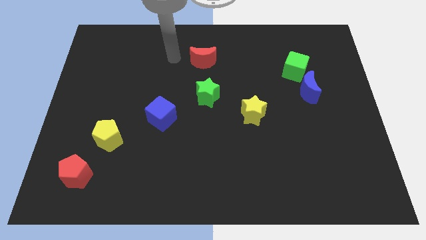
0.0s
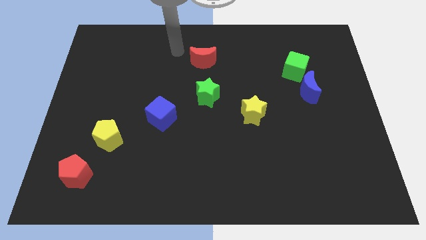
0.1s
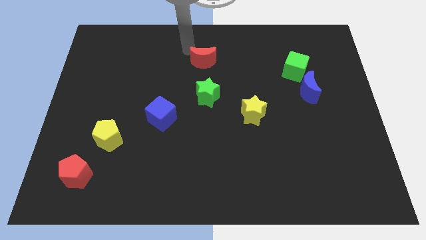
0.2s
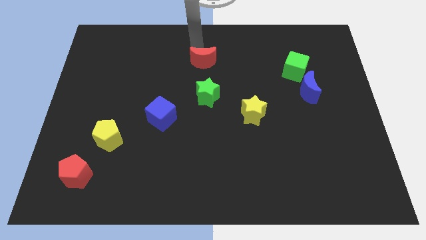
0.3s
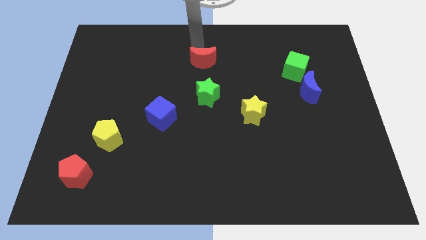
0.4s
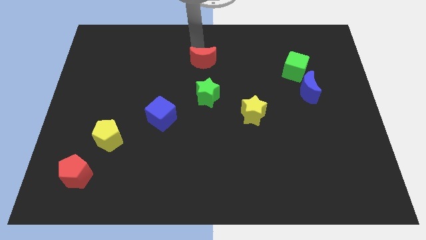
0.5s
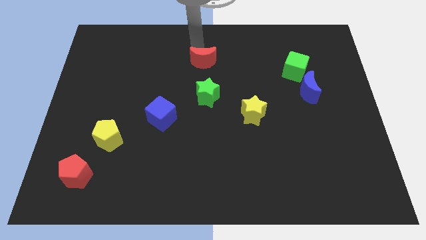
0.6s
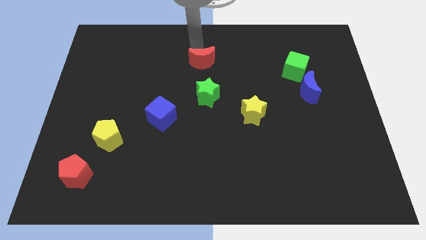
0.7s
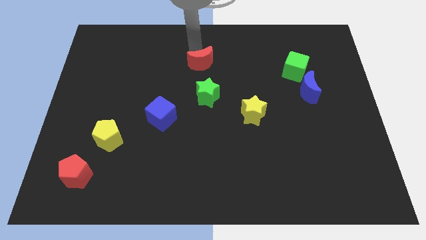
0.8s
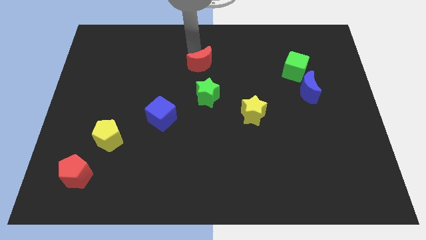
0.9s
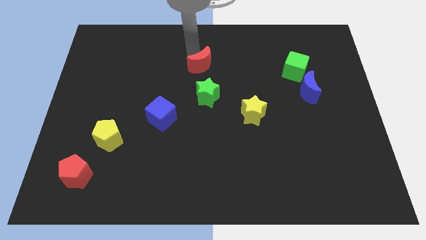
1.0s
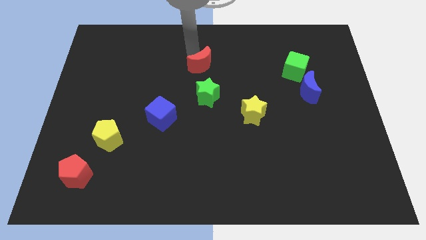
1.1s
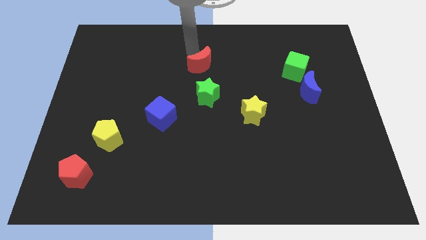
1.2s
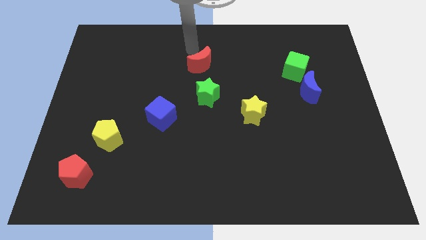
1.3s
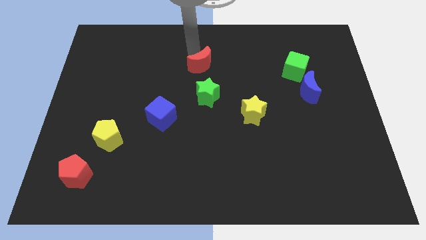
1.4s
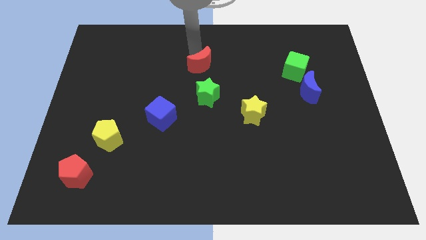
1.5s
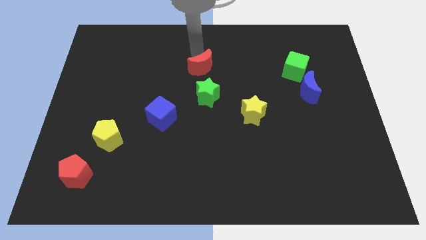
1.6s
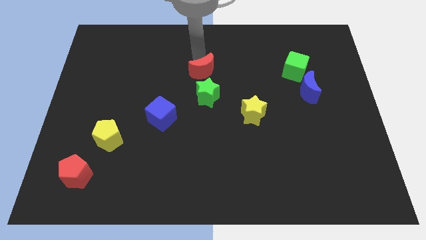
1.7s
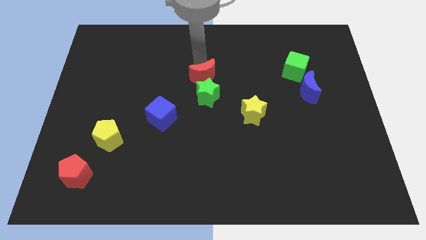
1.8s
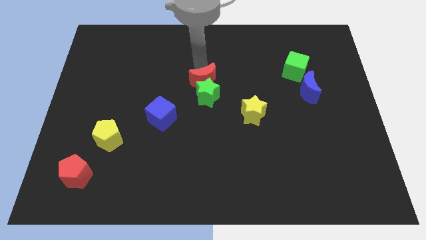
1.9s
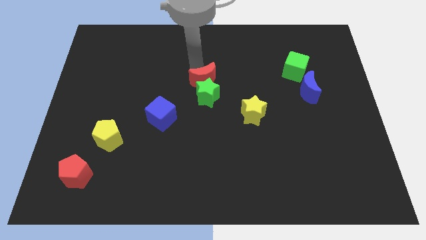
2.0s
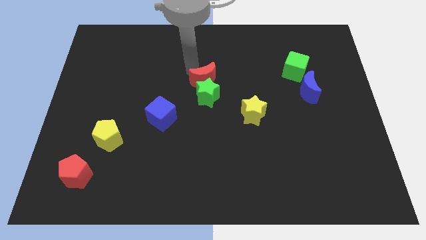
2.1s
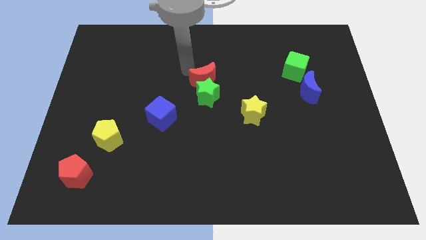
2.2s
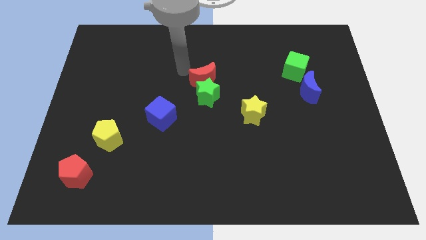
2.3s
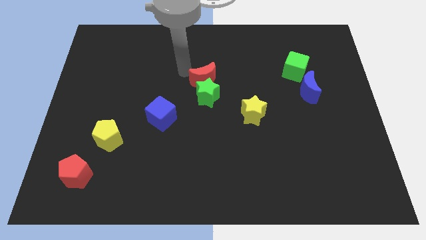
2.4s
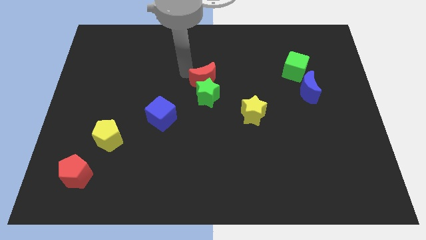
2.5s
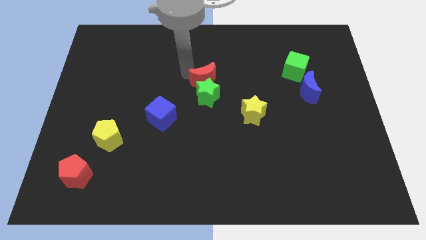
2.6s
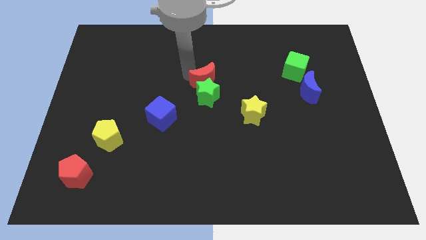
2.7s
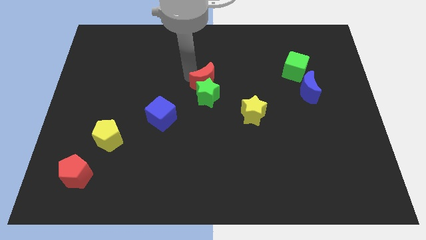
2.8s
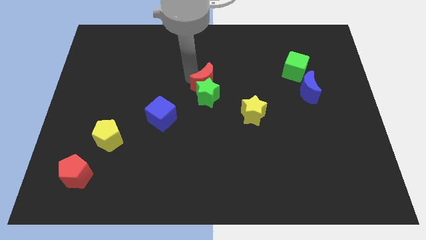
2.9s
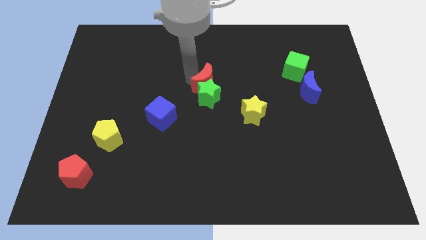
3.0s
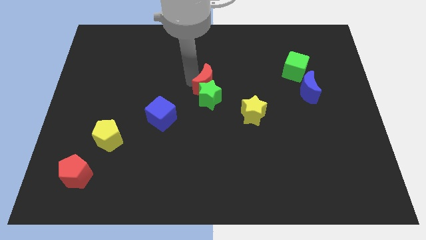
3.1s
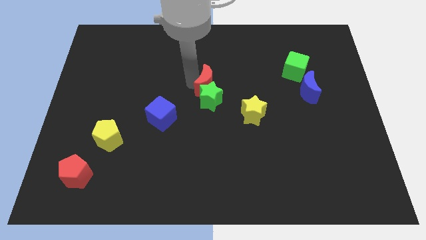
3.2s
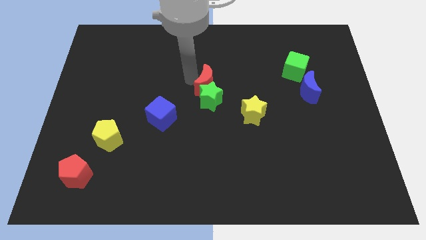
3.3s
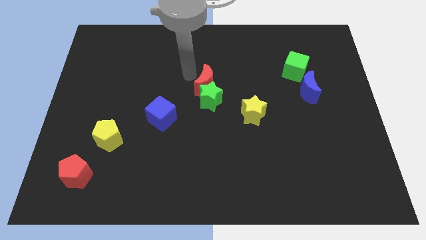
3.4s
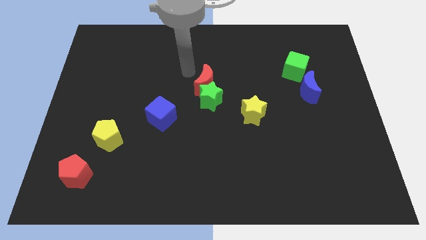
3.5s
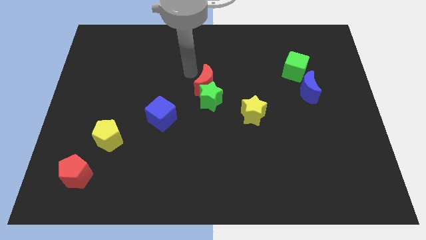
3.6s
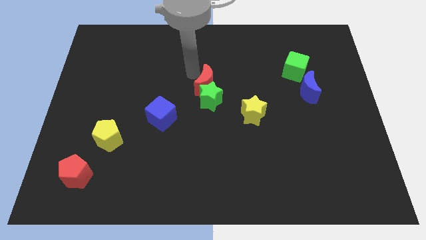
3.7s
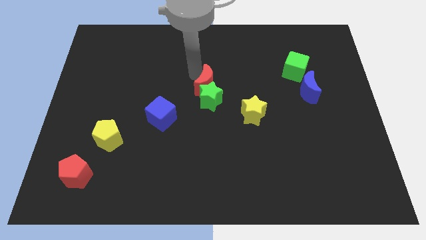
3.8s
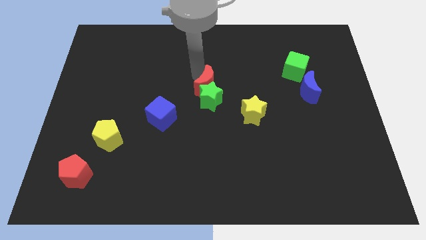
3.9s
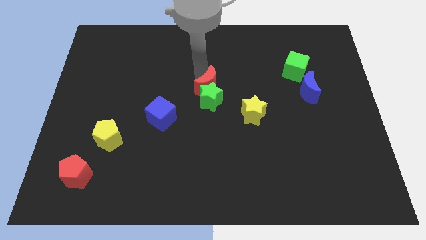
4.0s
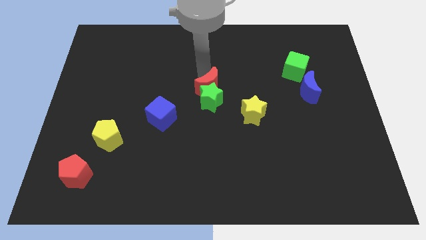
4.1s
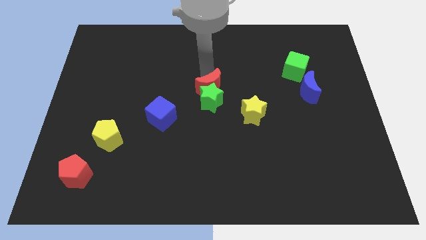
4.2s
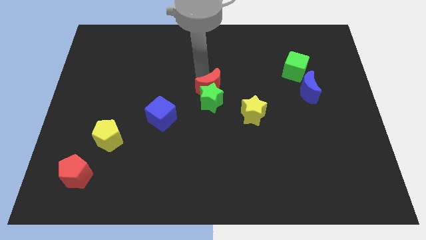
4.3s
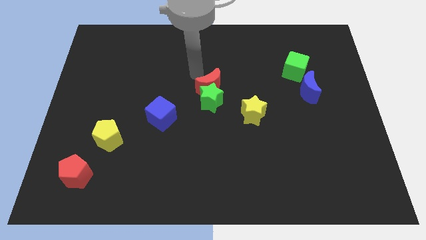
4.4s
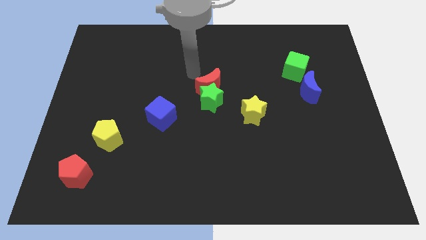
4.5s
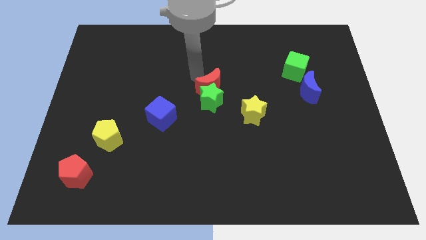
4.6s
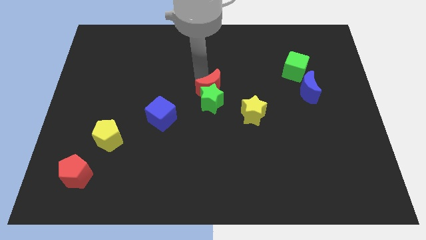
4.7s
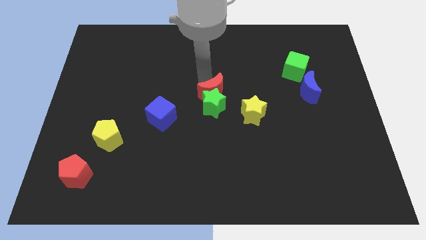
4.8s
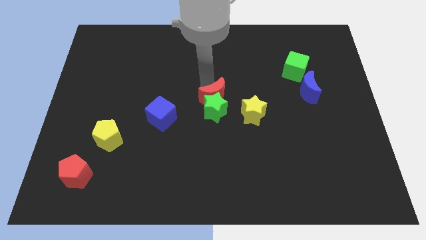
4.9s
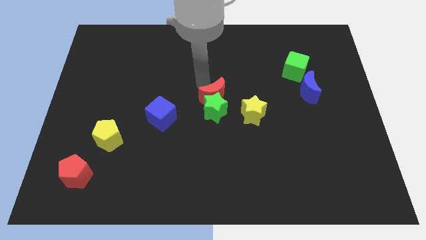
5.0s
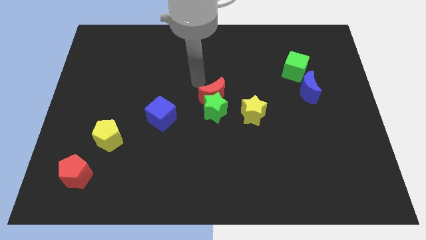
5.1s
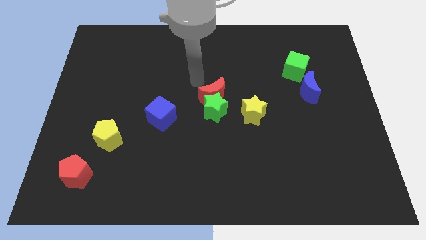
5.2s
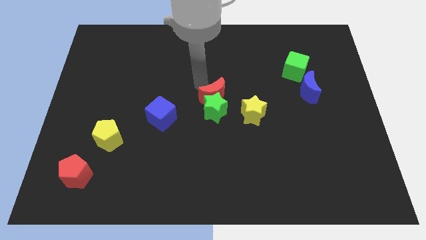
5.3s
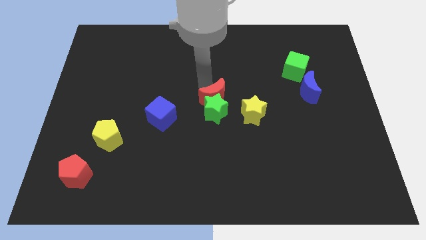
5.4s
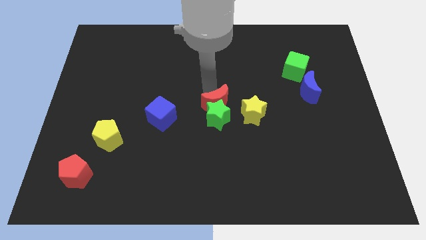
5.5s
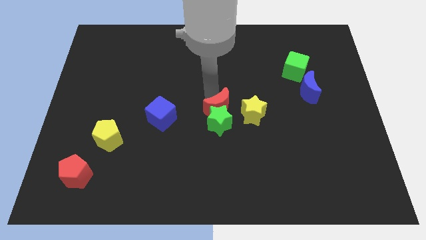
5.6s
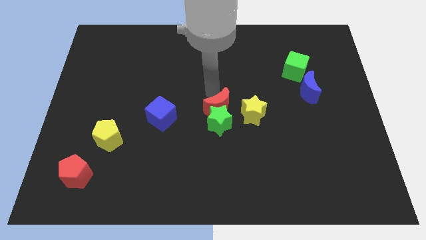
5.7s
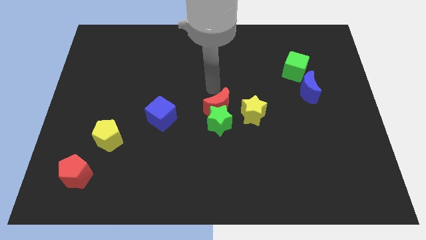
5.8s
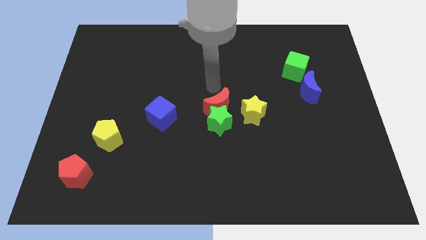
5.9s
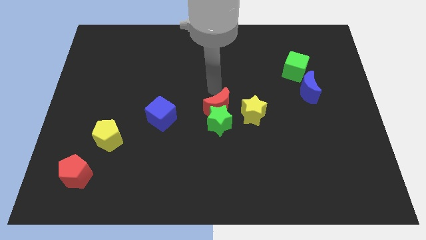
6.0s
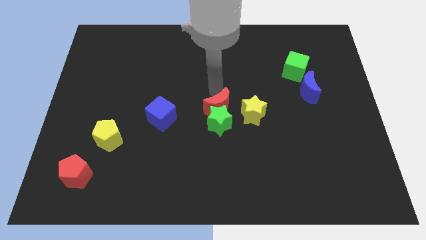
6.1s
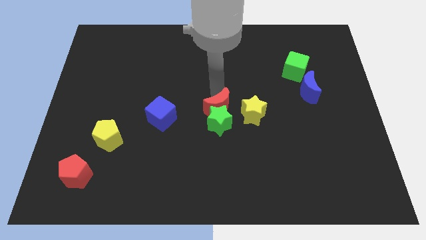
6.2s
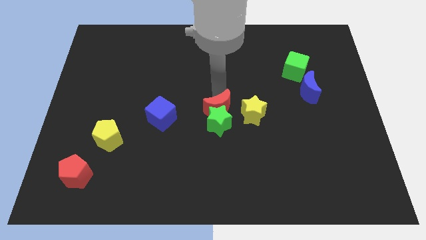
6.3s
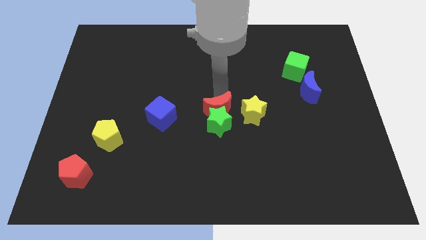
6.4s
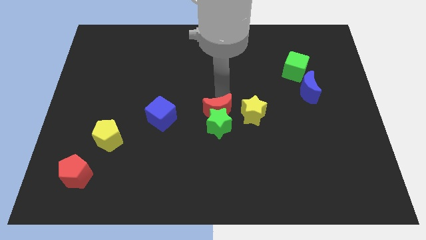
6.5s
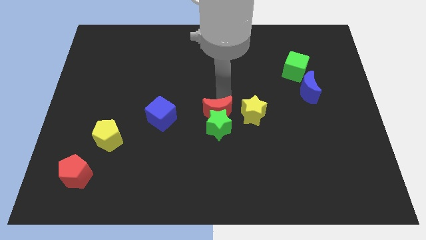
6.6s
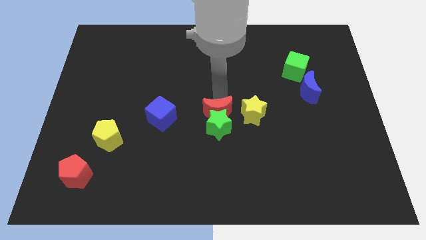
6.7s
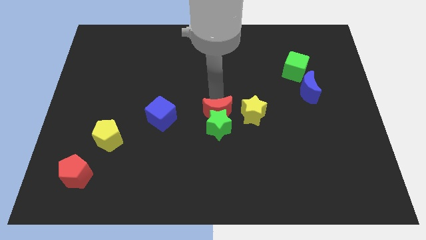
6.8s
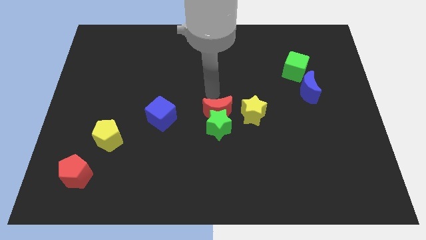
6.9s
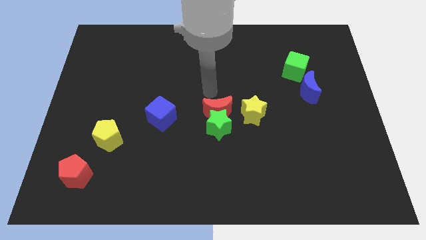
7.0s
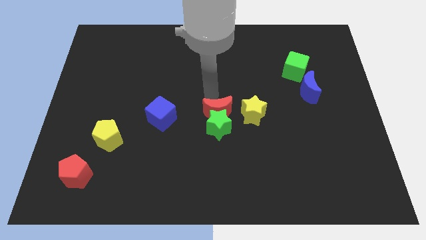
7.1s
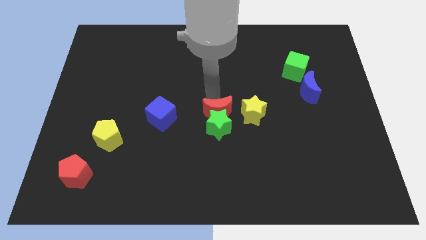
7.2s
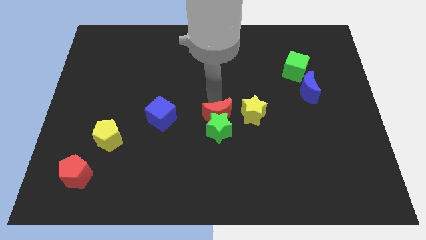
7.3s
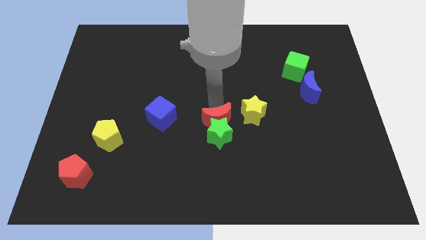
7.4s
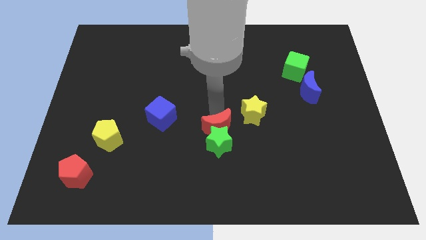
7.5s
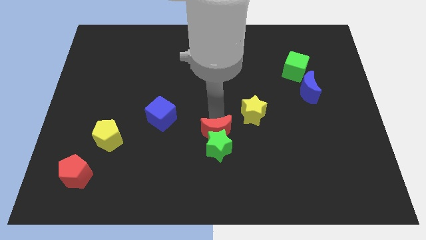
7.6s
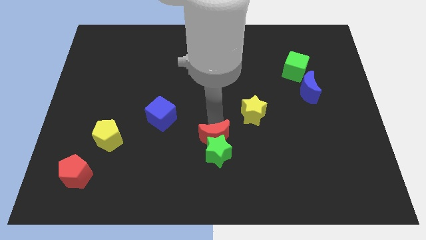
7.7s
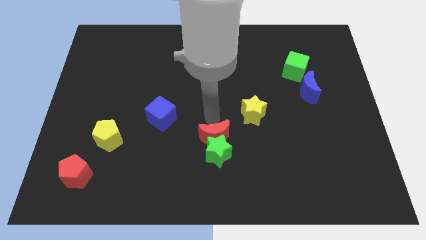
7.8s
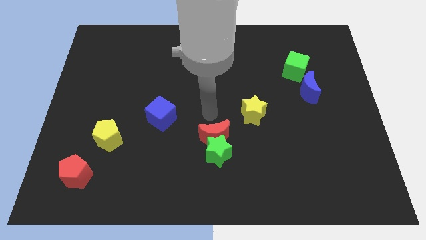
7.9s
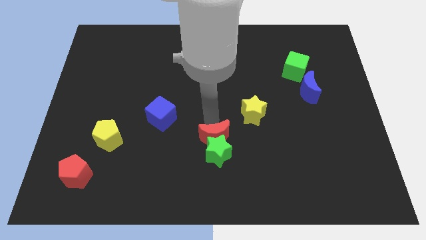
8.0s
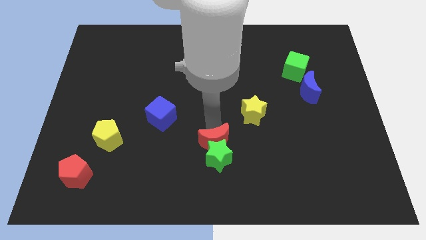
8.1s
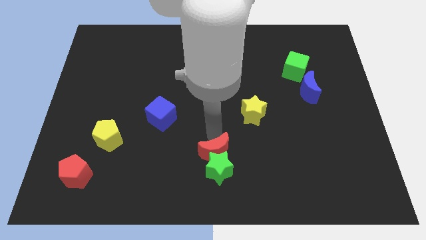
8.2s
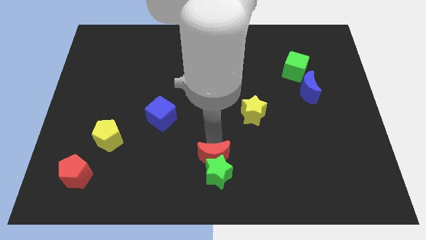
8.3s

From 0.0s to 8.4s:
put the red moon to the bottom side
